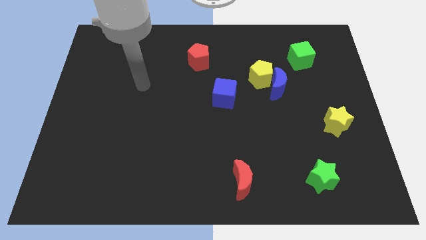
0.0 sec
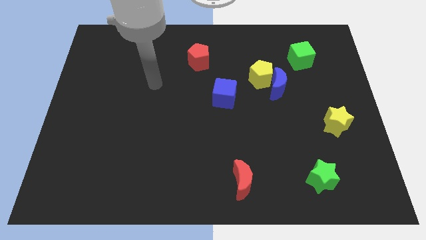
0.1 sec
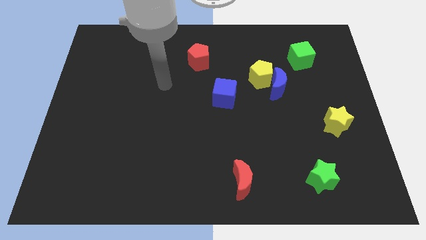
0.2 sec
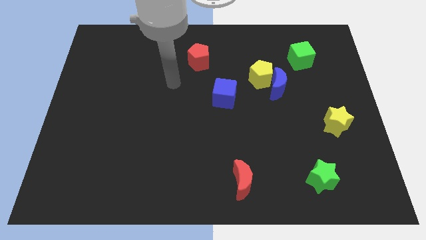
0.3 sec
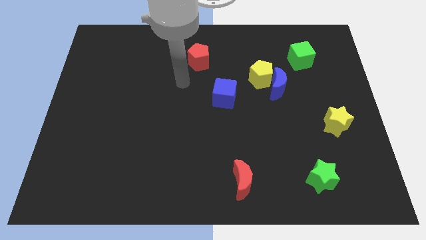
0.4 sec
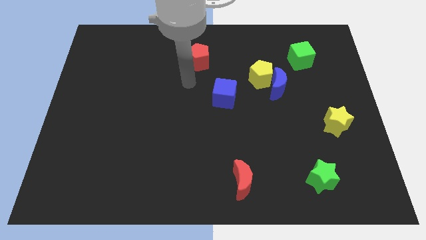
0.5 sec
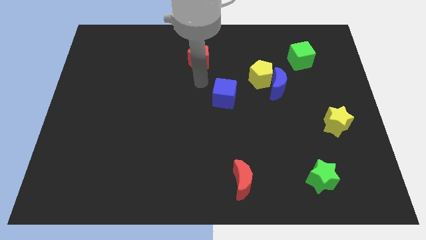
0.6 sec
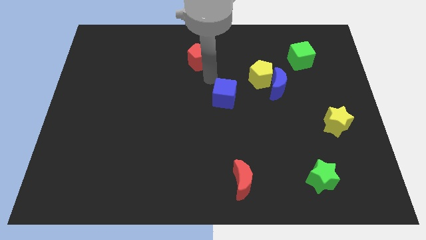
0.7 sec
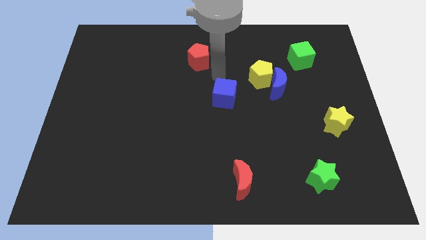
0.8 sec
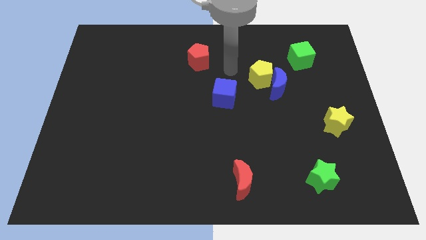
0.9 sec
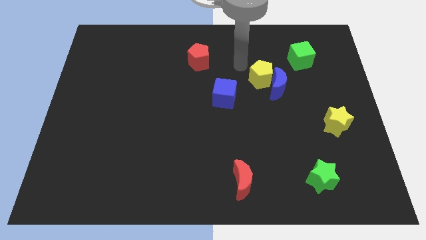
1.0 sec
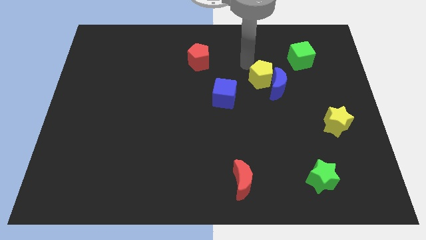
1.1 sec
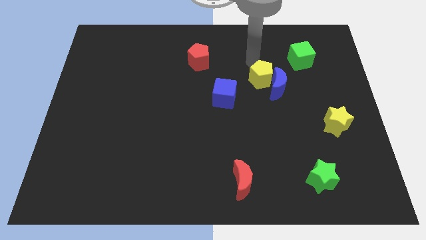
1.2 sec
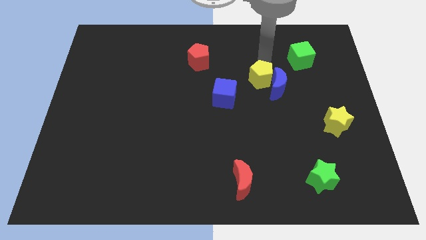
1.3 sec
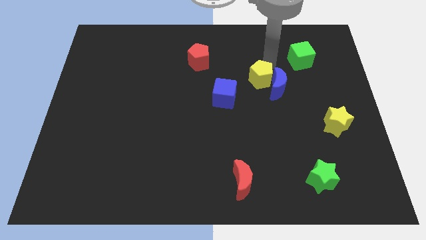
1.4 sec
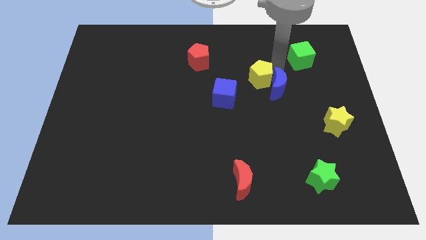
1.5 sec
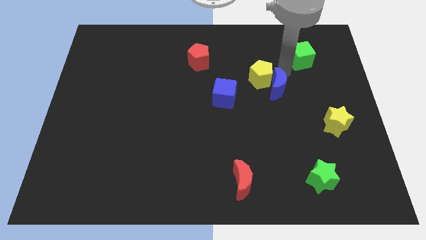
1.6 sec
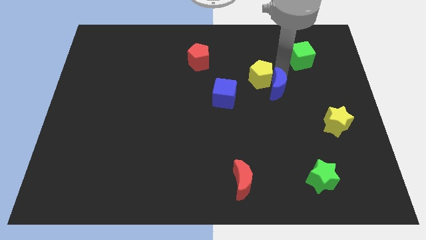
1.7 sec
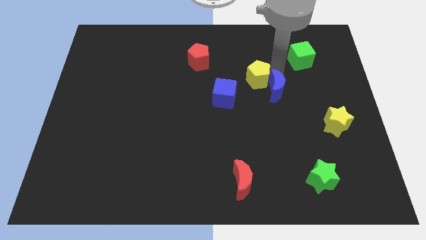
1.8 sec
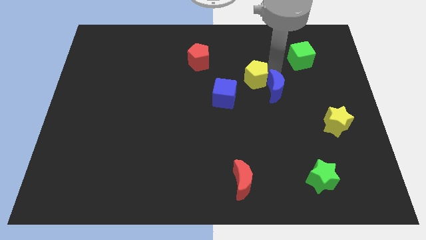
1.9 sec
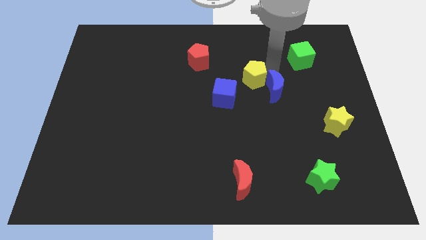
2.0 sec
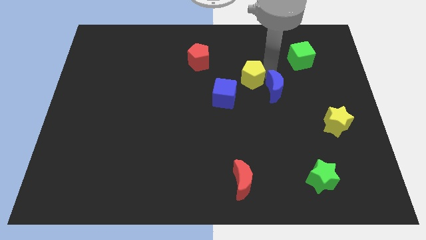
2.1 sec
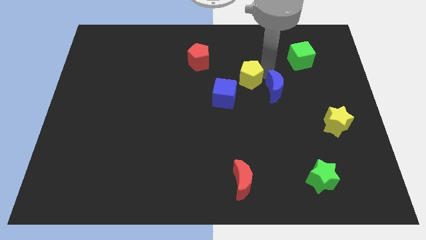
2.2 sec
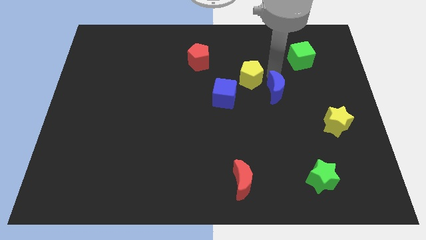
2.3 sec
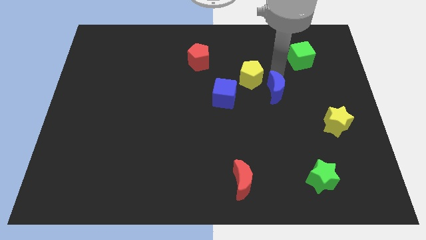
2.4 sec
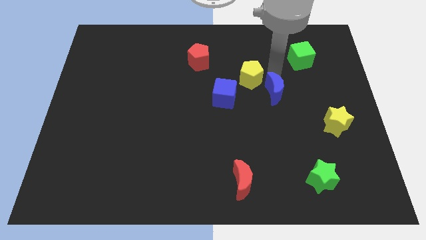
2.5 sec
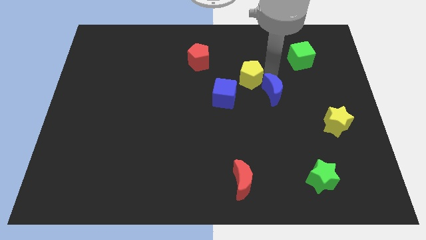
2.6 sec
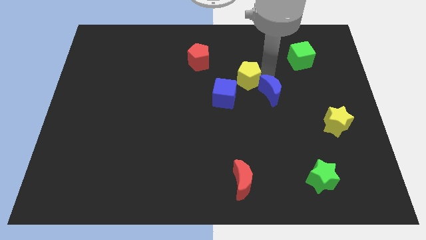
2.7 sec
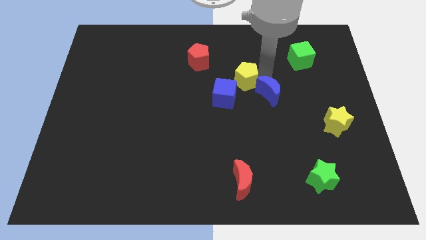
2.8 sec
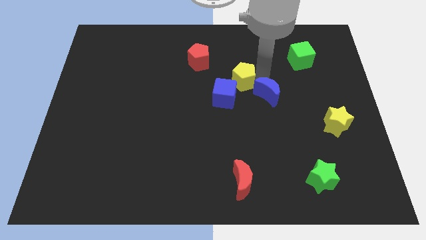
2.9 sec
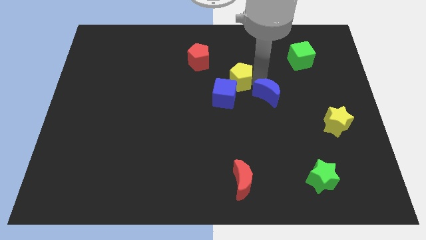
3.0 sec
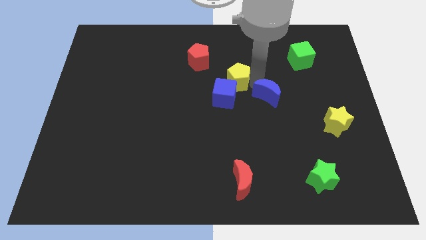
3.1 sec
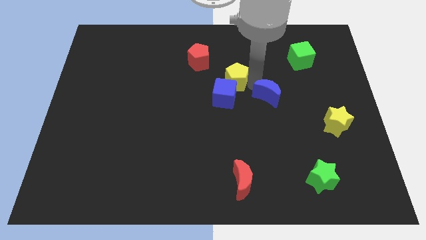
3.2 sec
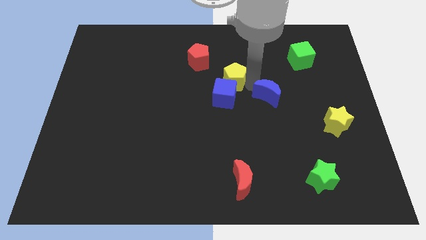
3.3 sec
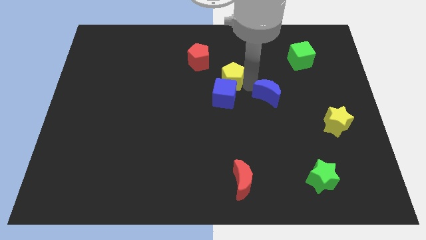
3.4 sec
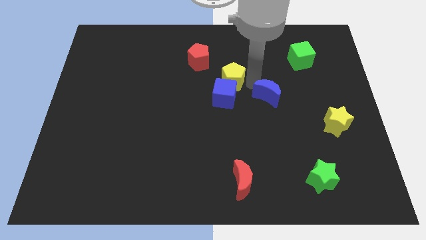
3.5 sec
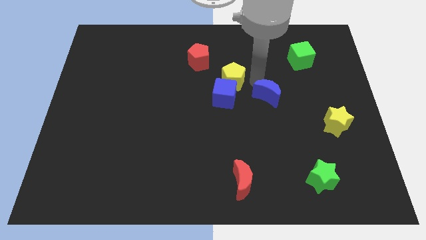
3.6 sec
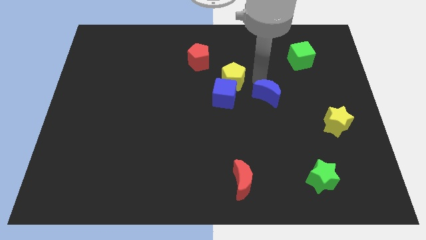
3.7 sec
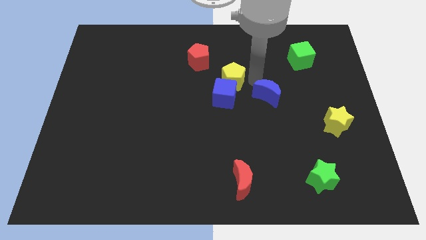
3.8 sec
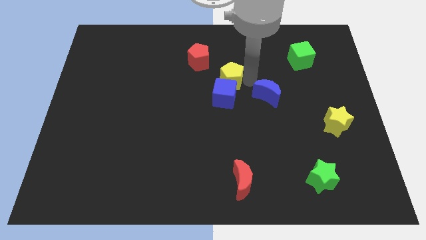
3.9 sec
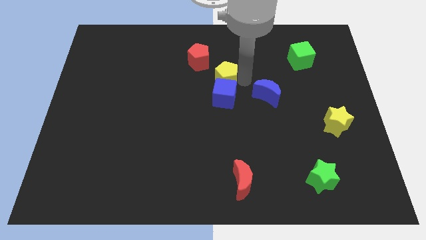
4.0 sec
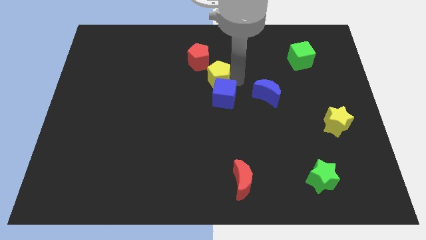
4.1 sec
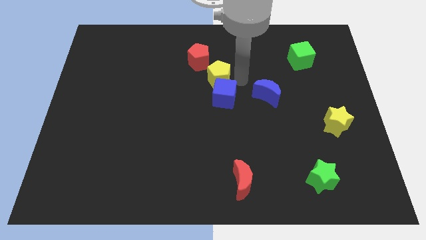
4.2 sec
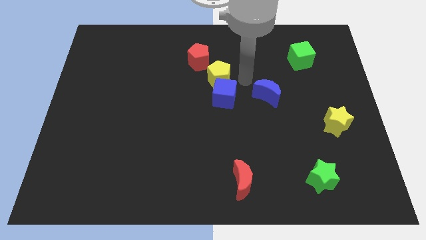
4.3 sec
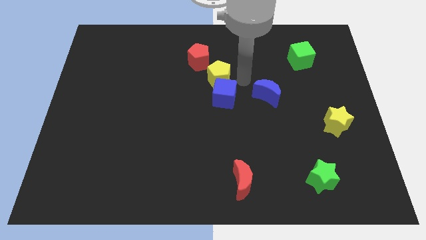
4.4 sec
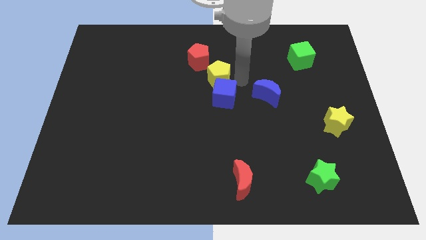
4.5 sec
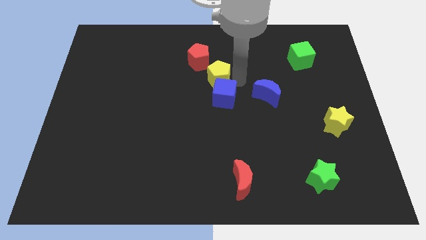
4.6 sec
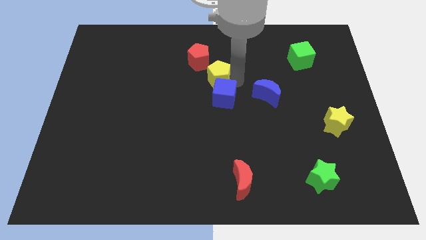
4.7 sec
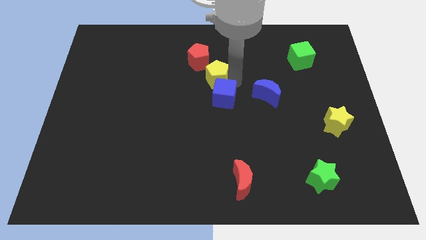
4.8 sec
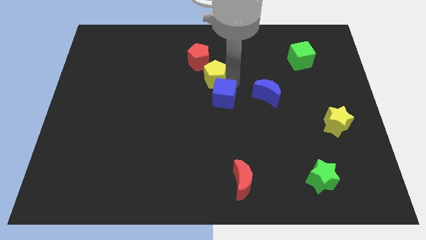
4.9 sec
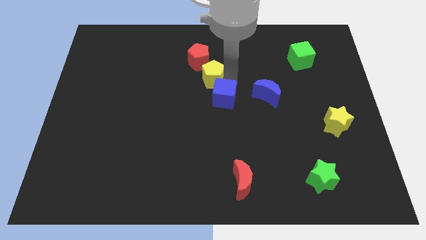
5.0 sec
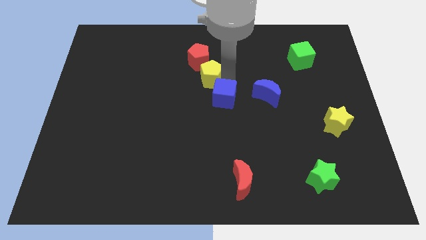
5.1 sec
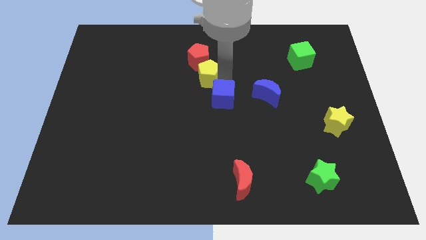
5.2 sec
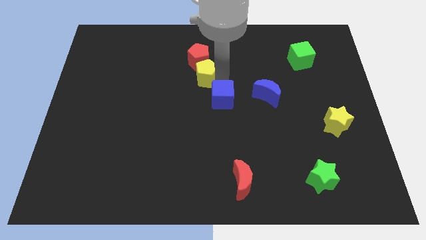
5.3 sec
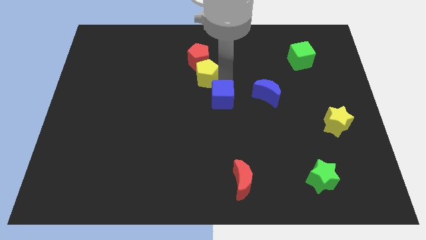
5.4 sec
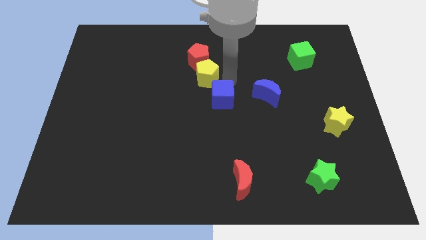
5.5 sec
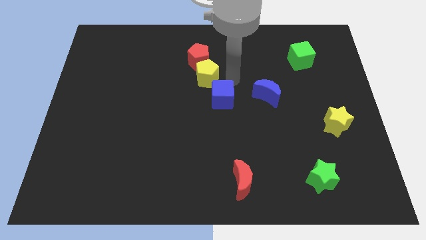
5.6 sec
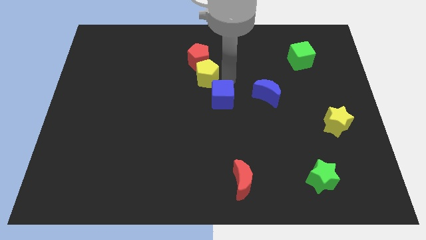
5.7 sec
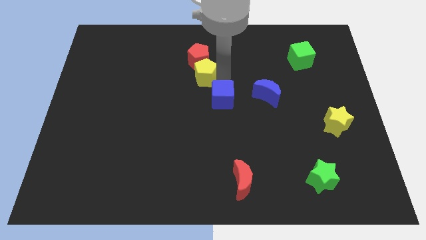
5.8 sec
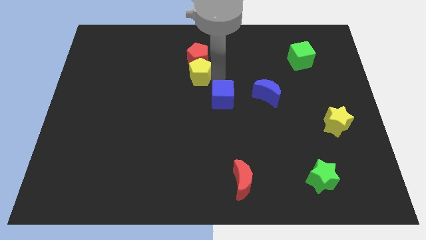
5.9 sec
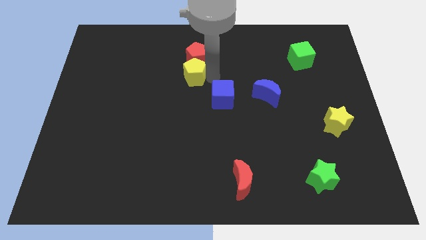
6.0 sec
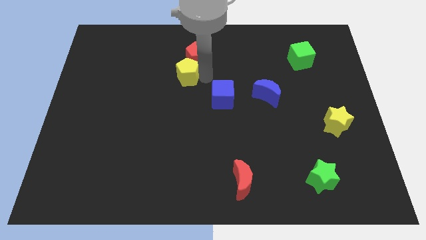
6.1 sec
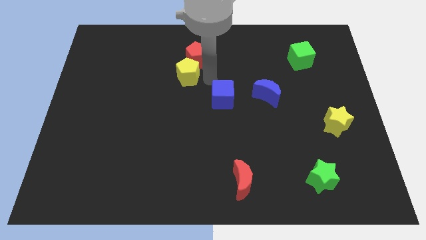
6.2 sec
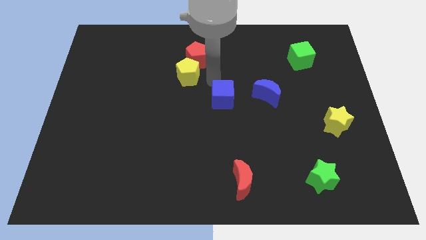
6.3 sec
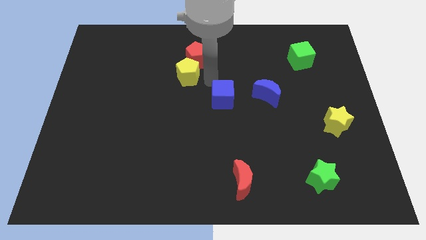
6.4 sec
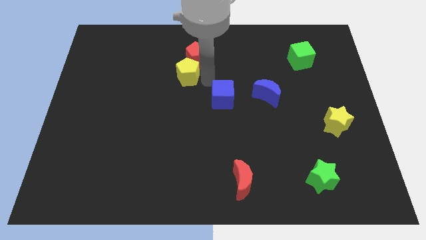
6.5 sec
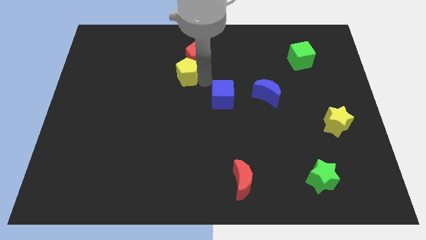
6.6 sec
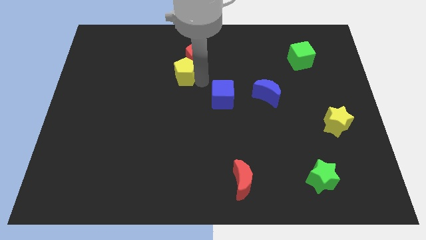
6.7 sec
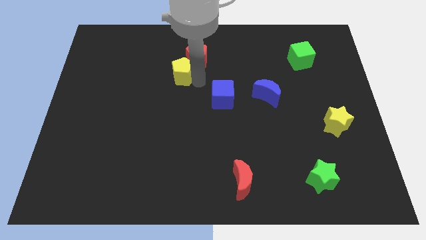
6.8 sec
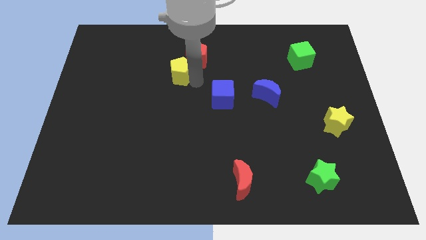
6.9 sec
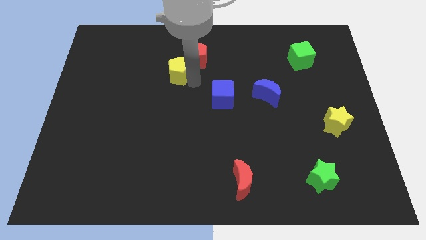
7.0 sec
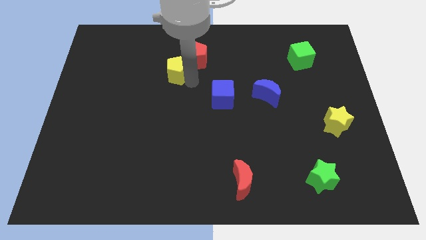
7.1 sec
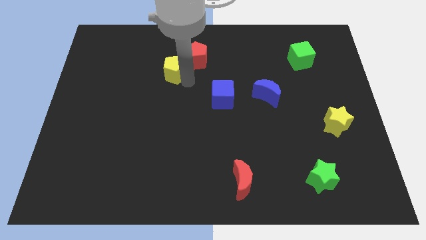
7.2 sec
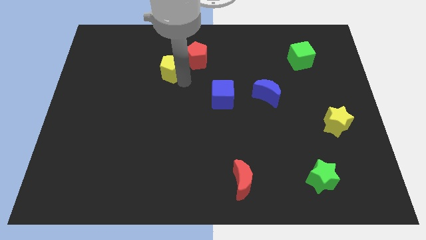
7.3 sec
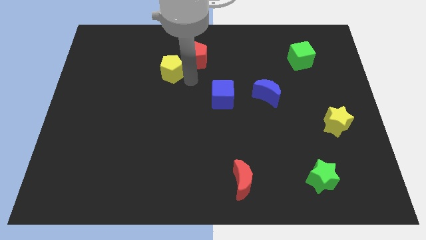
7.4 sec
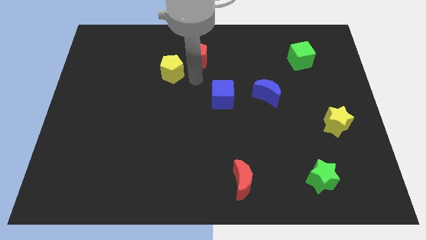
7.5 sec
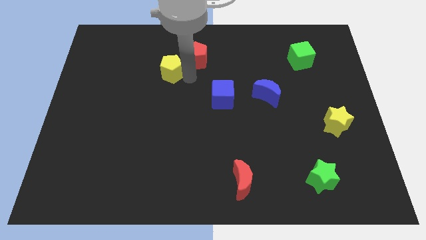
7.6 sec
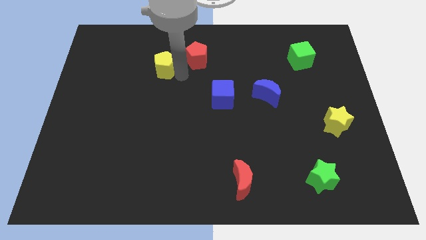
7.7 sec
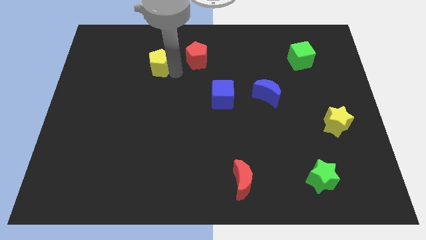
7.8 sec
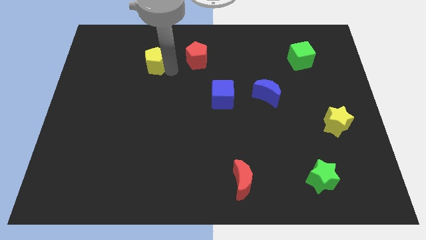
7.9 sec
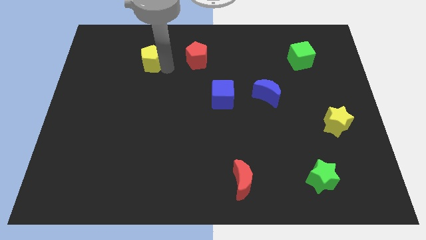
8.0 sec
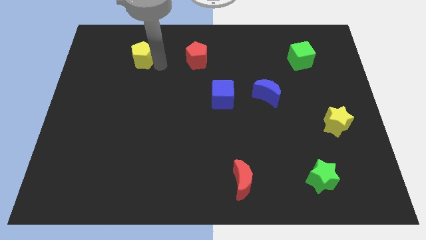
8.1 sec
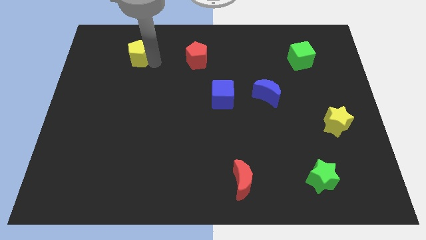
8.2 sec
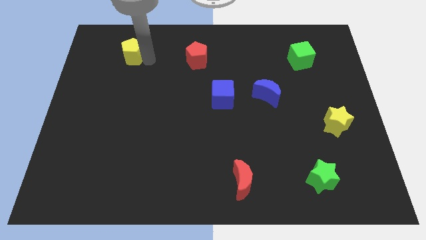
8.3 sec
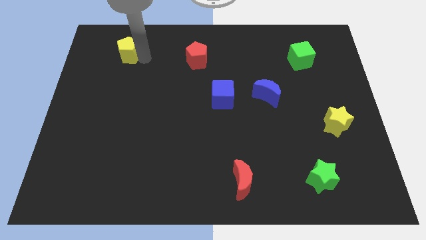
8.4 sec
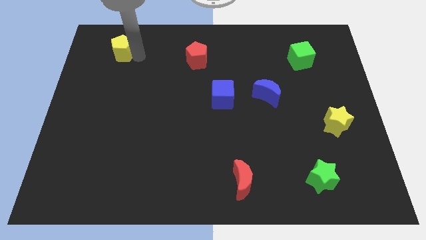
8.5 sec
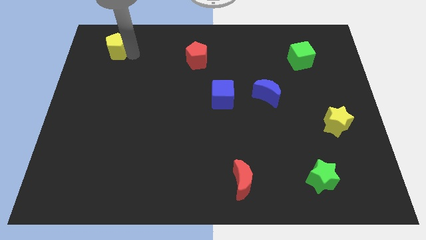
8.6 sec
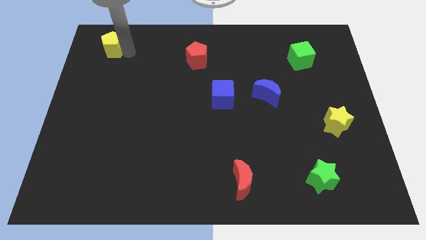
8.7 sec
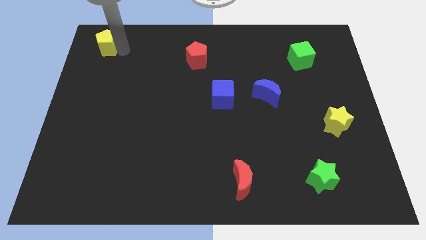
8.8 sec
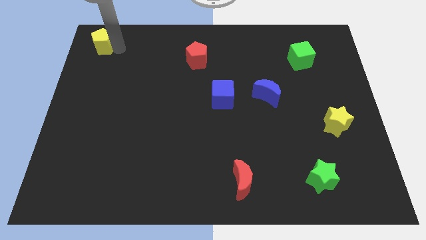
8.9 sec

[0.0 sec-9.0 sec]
slide the yellow pentagon to the top left of the board
